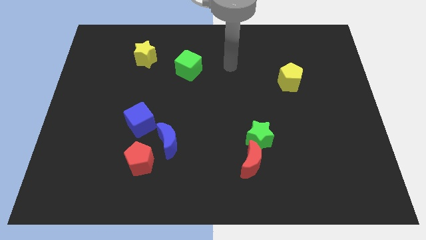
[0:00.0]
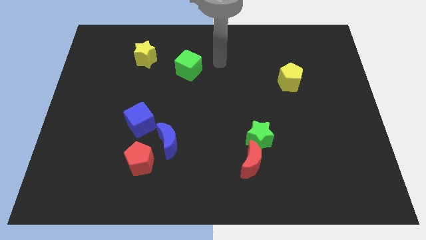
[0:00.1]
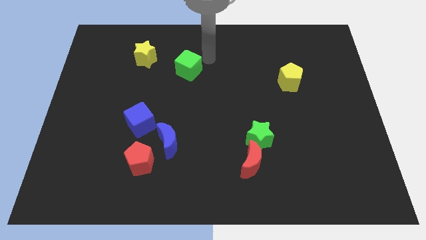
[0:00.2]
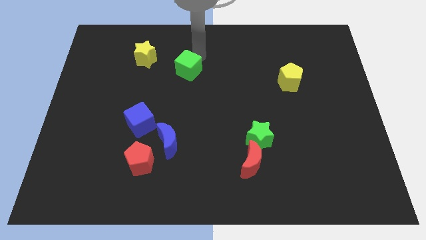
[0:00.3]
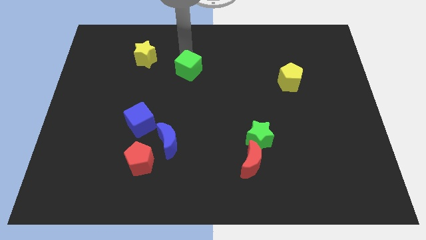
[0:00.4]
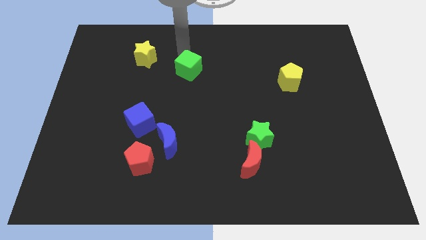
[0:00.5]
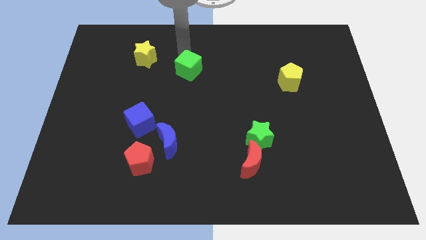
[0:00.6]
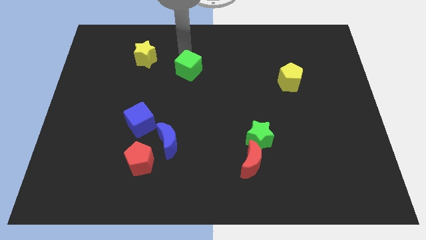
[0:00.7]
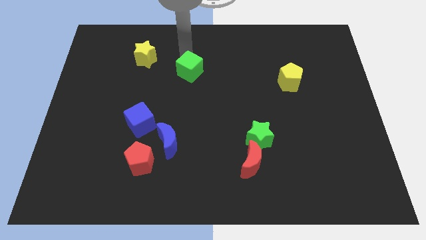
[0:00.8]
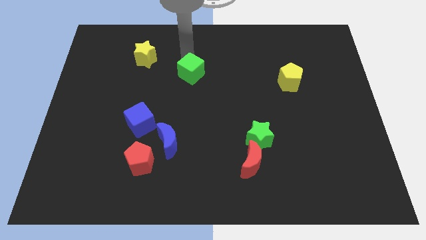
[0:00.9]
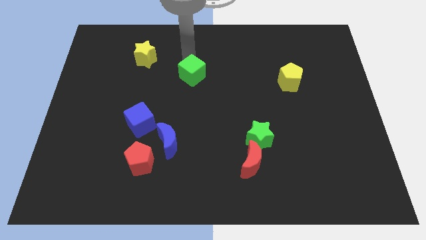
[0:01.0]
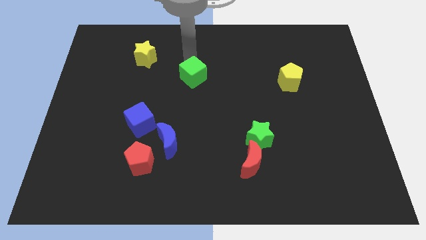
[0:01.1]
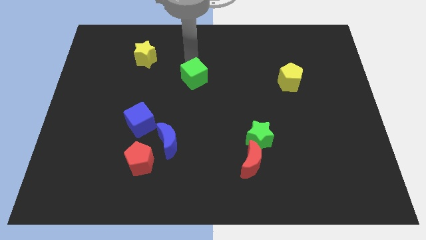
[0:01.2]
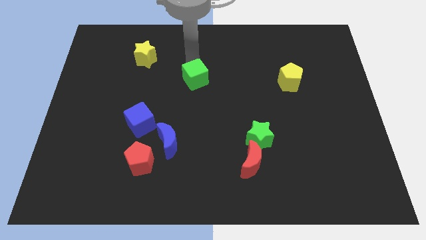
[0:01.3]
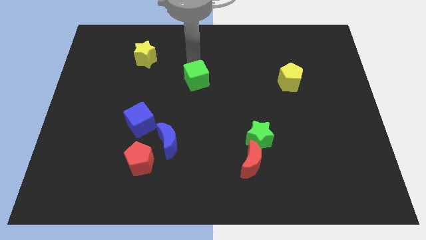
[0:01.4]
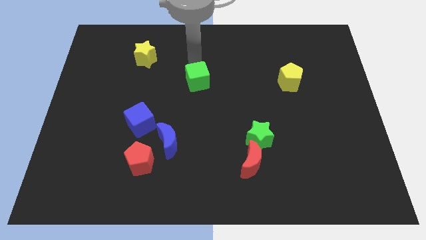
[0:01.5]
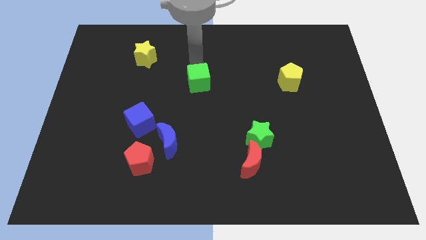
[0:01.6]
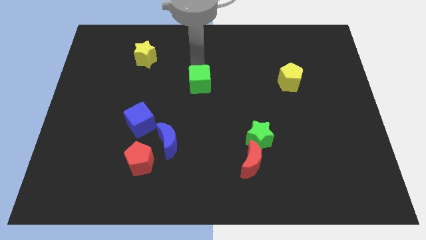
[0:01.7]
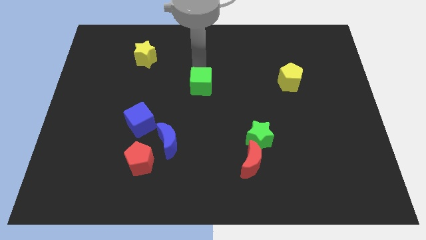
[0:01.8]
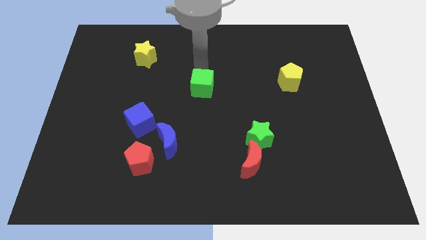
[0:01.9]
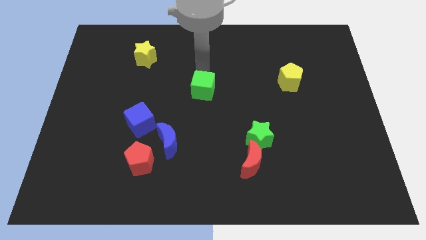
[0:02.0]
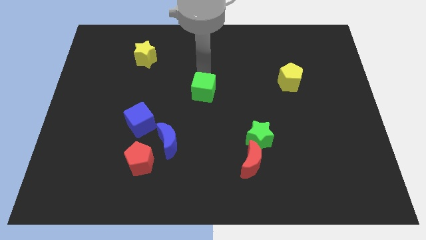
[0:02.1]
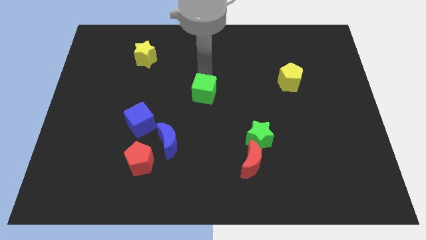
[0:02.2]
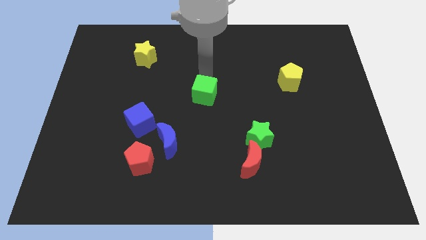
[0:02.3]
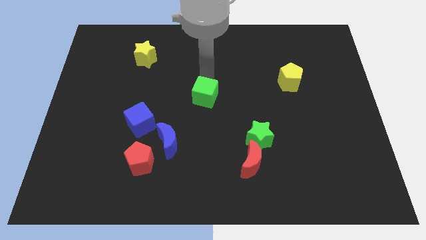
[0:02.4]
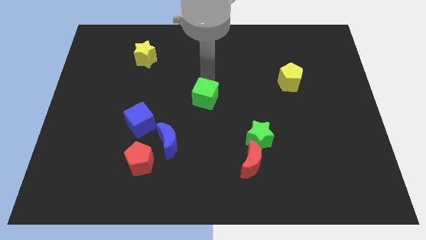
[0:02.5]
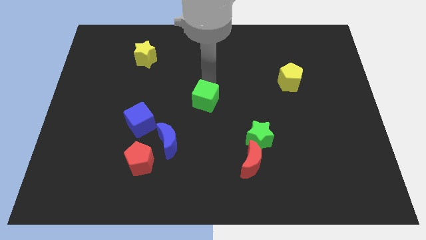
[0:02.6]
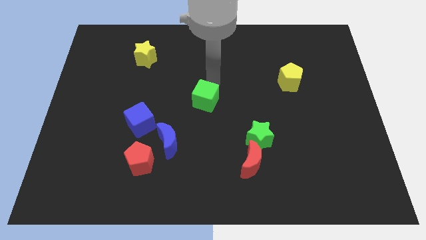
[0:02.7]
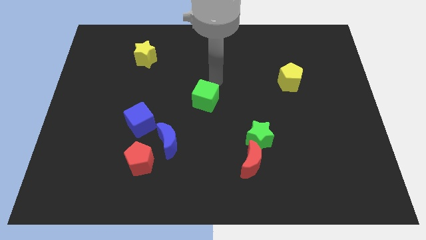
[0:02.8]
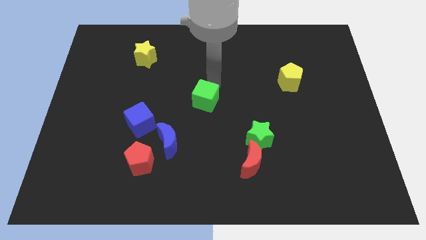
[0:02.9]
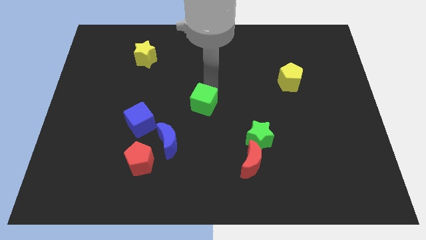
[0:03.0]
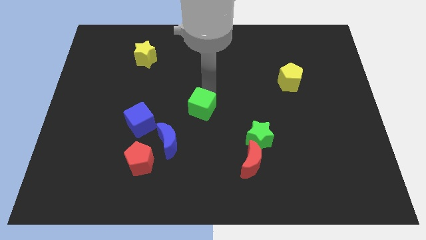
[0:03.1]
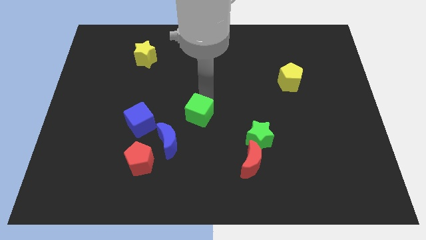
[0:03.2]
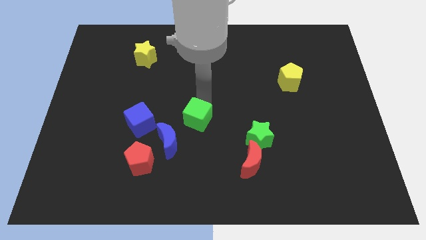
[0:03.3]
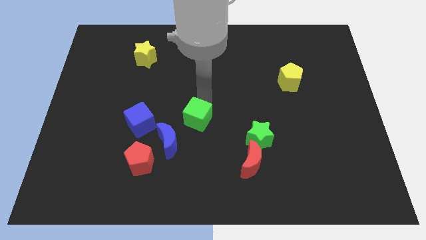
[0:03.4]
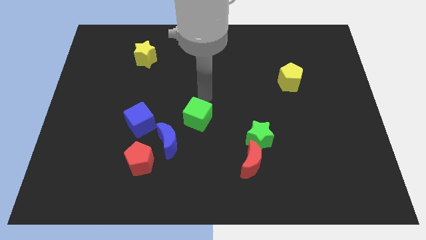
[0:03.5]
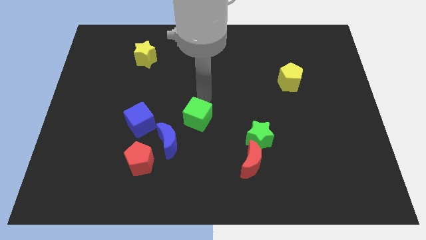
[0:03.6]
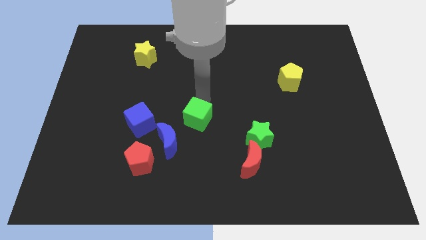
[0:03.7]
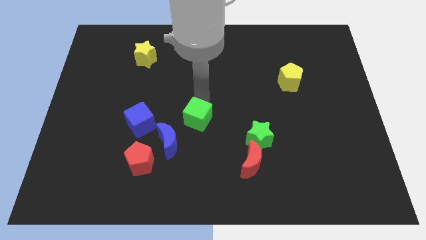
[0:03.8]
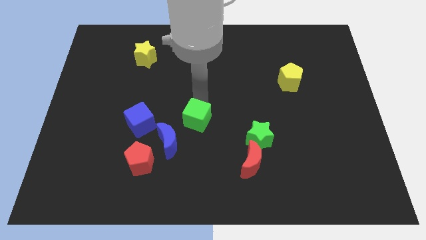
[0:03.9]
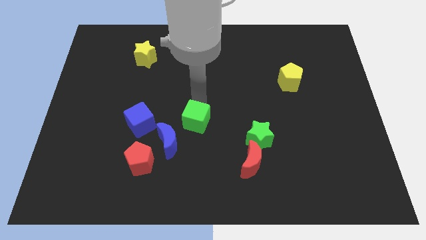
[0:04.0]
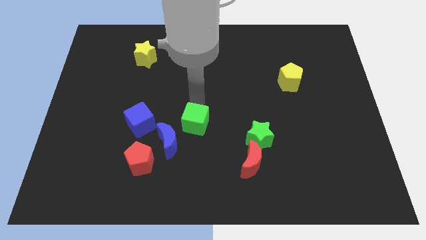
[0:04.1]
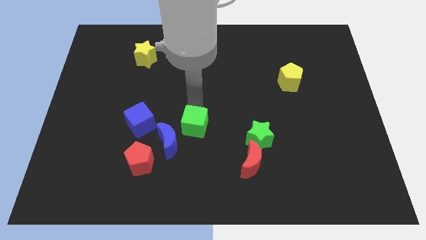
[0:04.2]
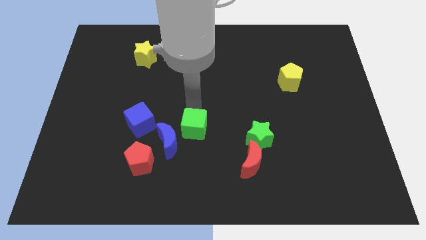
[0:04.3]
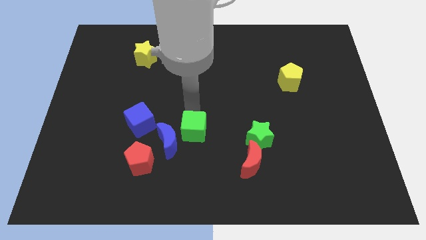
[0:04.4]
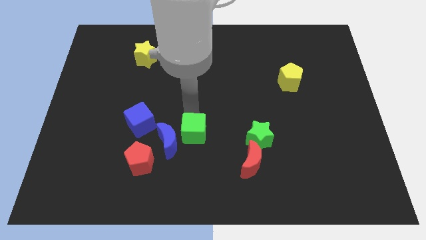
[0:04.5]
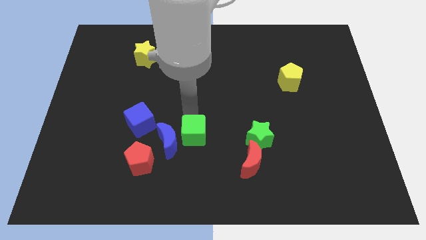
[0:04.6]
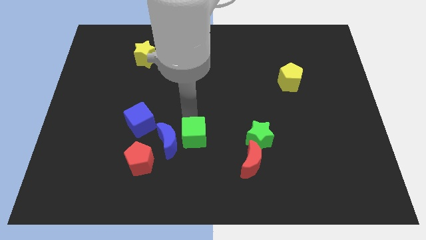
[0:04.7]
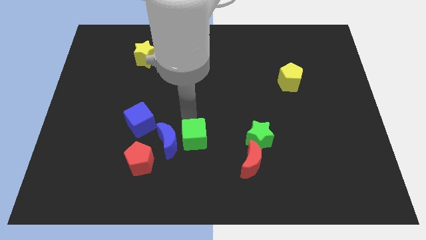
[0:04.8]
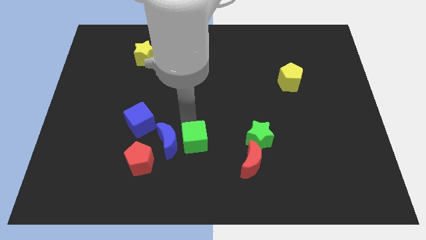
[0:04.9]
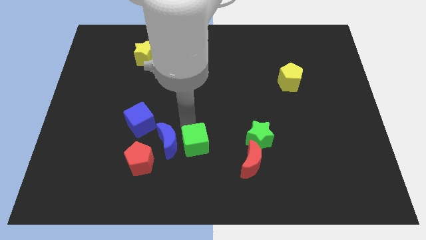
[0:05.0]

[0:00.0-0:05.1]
slide the green cube just left of the red moon

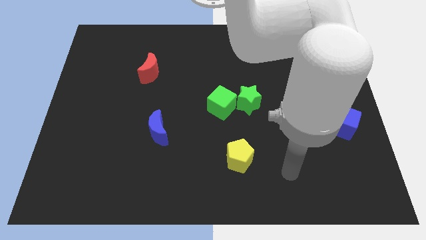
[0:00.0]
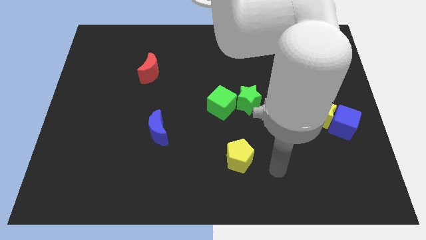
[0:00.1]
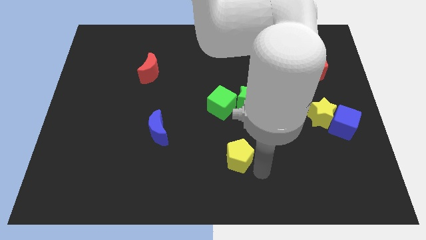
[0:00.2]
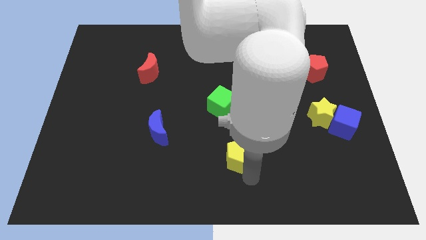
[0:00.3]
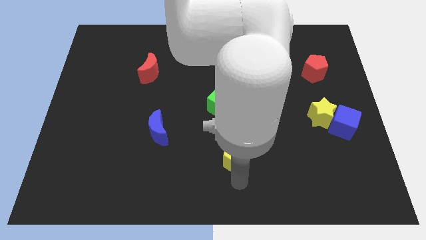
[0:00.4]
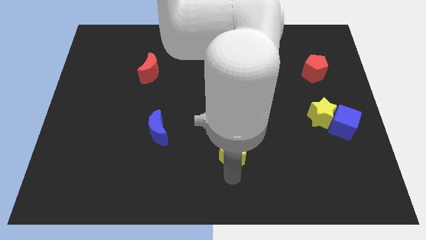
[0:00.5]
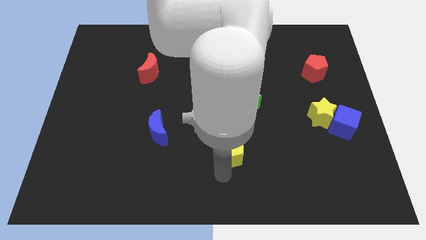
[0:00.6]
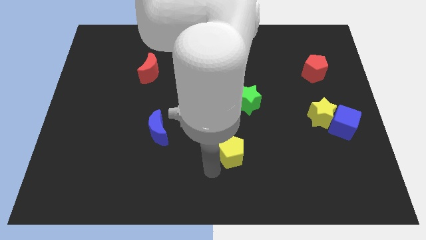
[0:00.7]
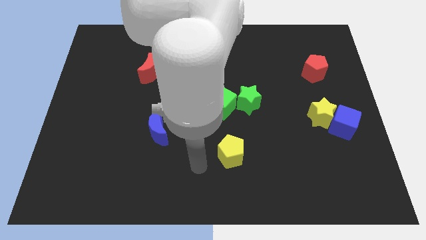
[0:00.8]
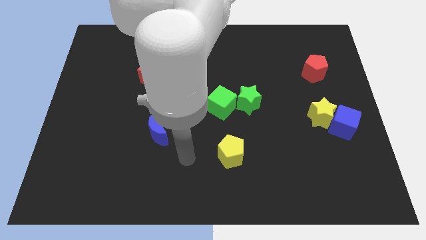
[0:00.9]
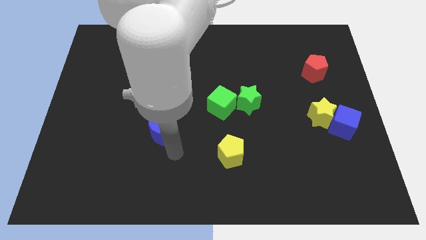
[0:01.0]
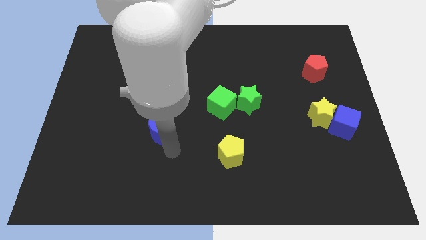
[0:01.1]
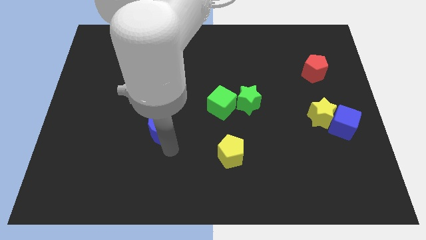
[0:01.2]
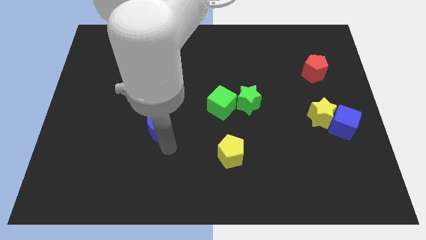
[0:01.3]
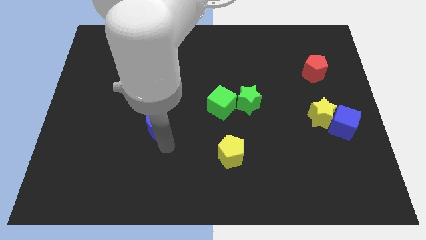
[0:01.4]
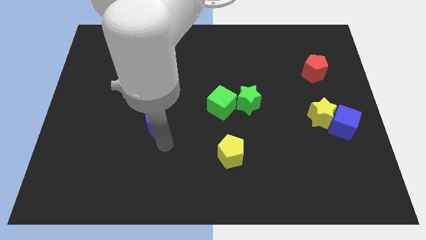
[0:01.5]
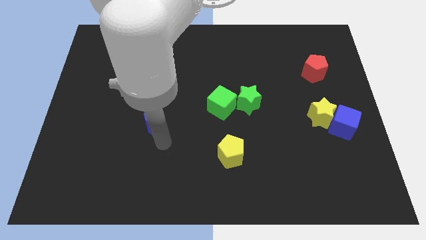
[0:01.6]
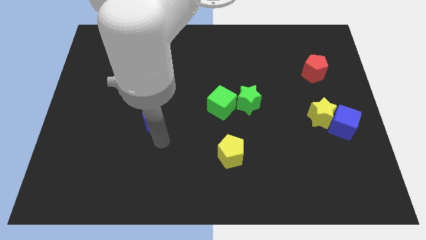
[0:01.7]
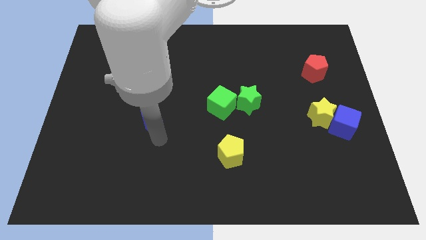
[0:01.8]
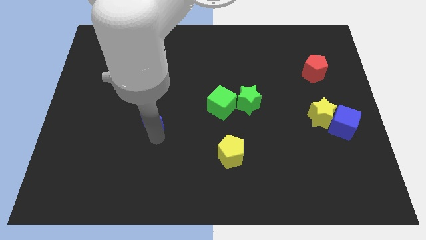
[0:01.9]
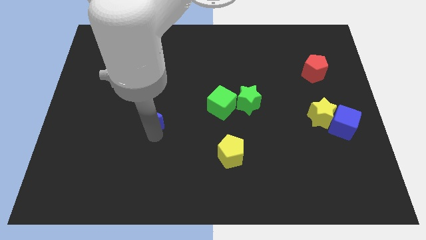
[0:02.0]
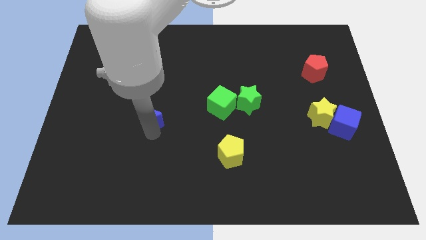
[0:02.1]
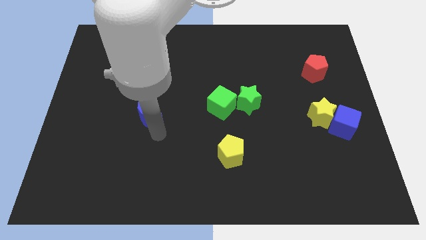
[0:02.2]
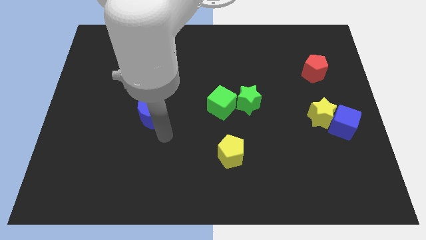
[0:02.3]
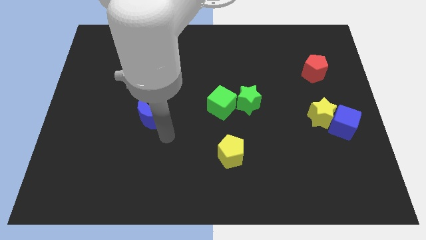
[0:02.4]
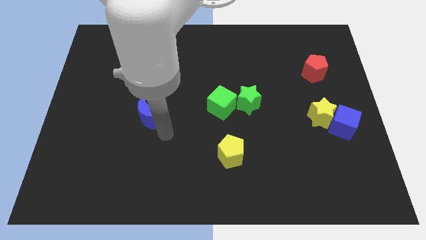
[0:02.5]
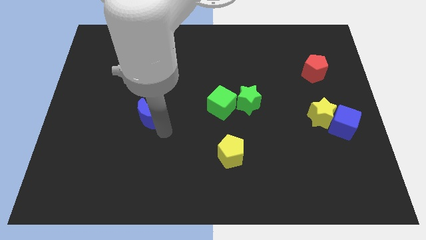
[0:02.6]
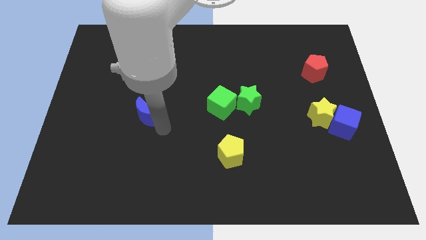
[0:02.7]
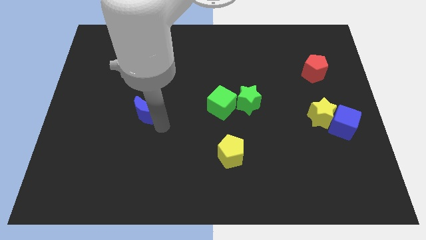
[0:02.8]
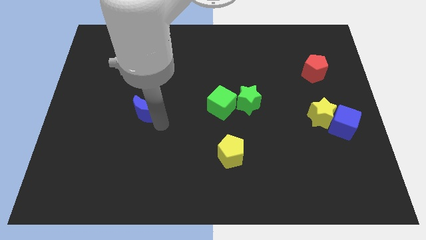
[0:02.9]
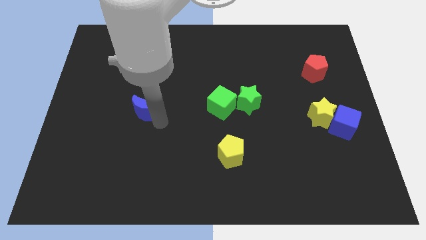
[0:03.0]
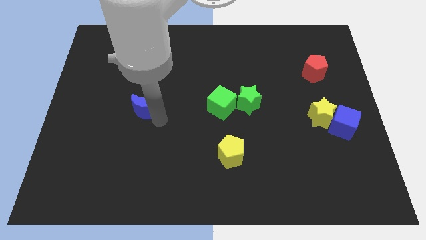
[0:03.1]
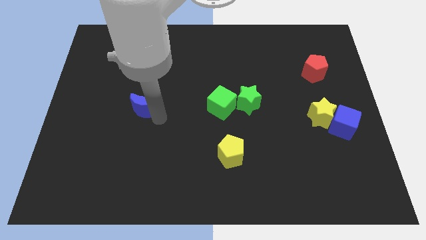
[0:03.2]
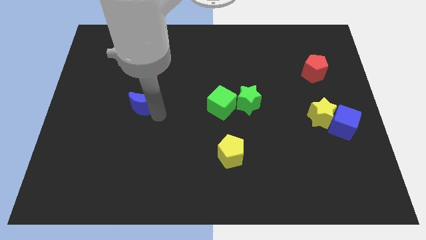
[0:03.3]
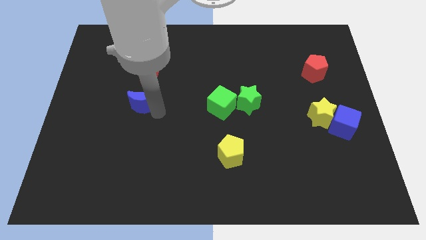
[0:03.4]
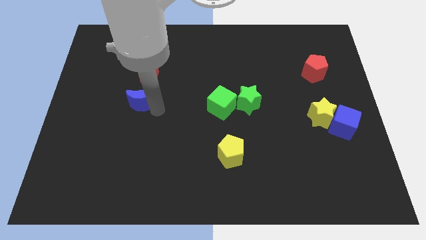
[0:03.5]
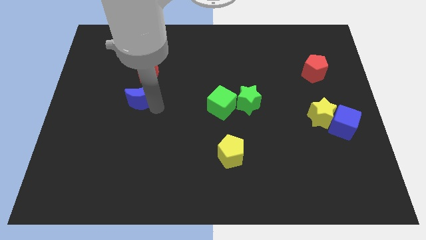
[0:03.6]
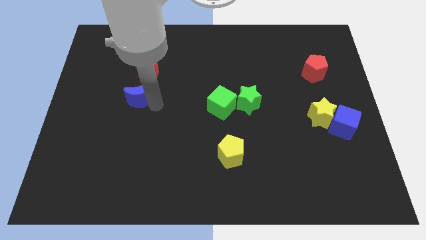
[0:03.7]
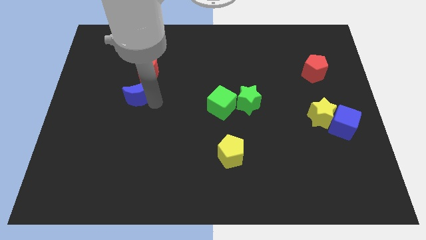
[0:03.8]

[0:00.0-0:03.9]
put the blue moon to the bottom left of the red moon
